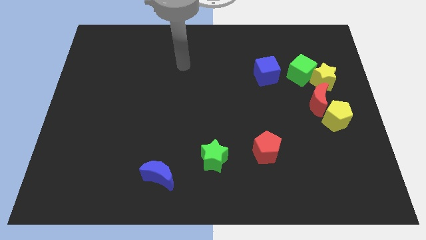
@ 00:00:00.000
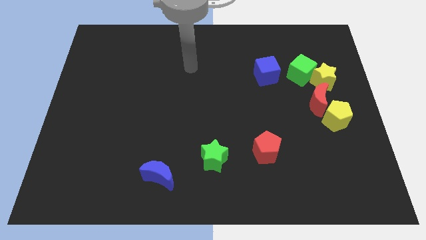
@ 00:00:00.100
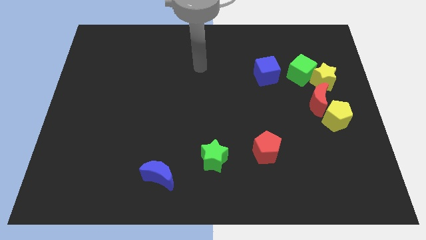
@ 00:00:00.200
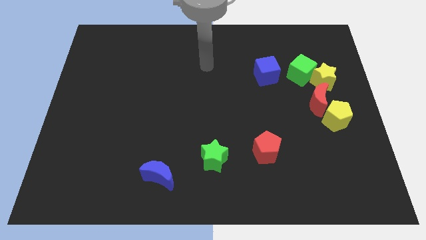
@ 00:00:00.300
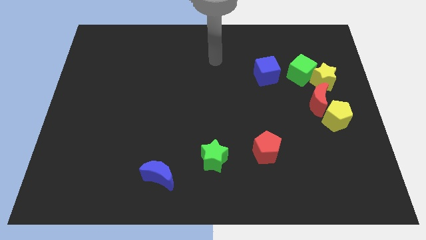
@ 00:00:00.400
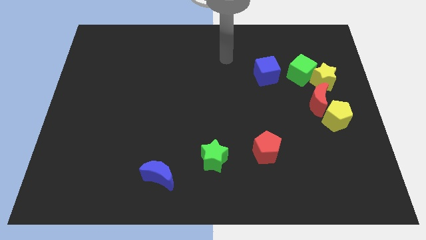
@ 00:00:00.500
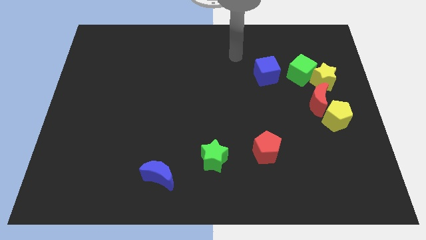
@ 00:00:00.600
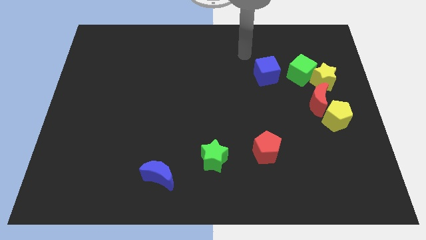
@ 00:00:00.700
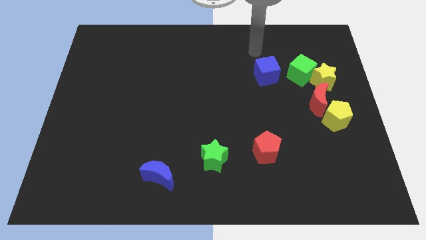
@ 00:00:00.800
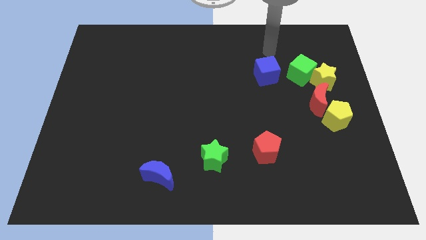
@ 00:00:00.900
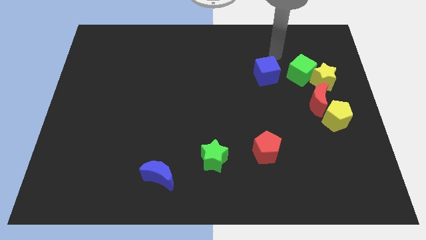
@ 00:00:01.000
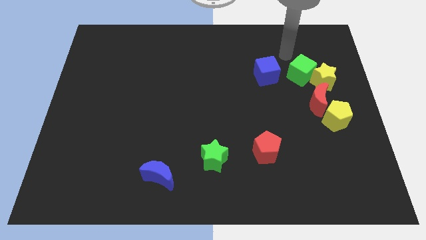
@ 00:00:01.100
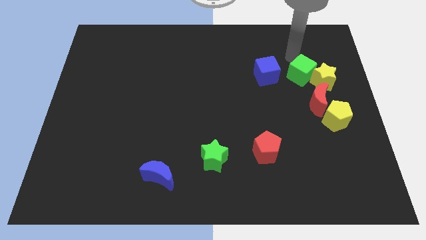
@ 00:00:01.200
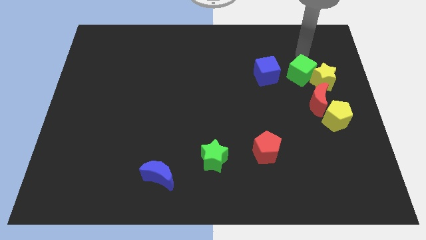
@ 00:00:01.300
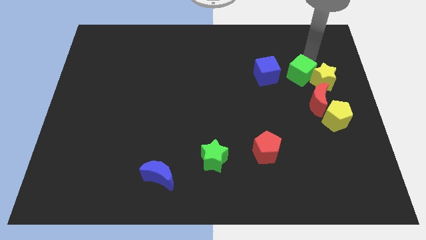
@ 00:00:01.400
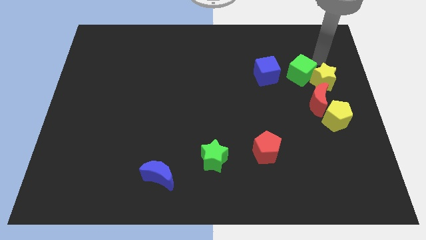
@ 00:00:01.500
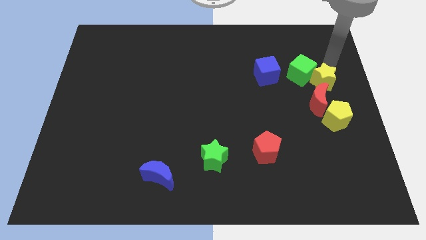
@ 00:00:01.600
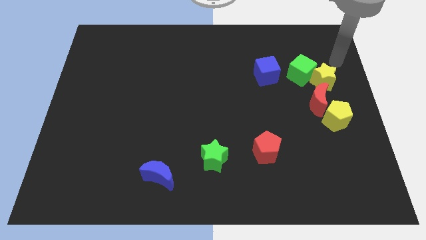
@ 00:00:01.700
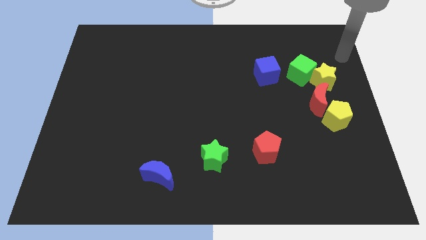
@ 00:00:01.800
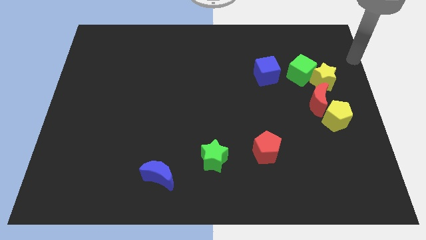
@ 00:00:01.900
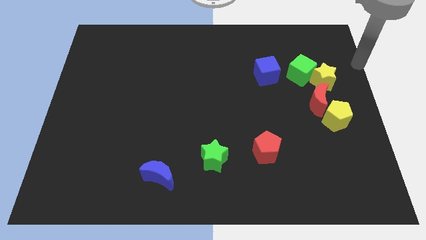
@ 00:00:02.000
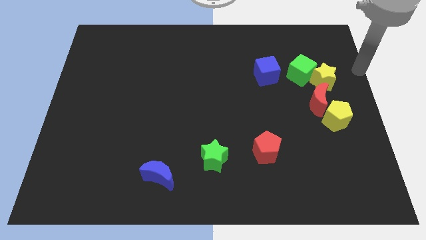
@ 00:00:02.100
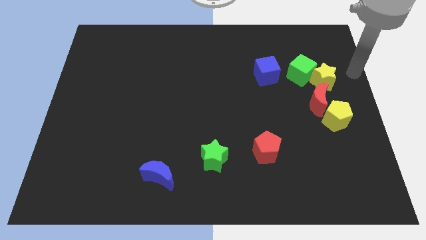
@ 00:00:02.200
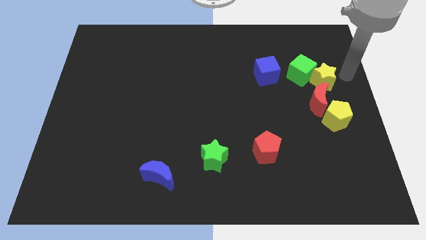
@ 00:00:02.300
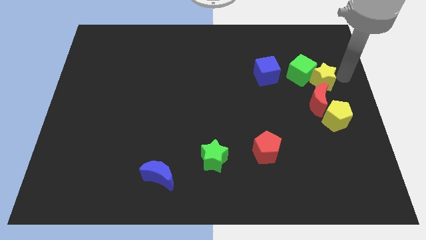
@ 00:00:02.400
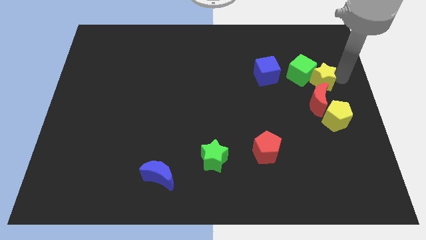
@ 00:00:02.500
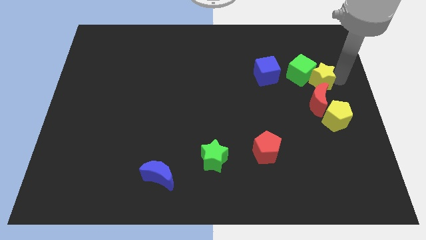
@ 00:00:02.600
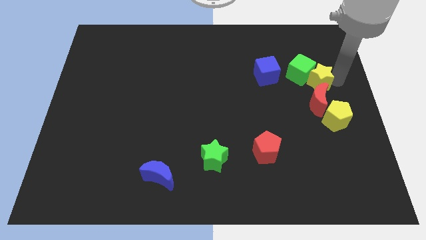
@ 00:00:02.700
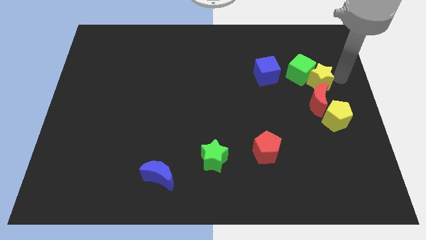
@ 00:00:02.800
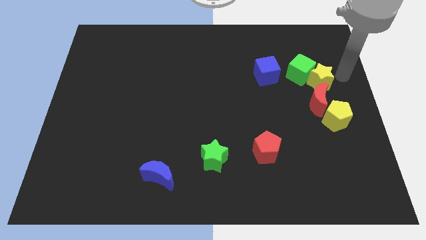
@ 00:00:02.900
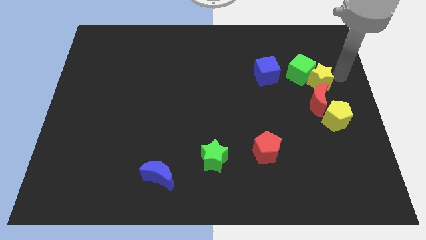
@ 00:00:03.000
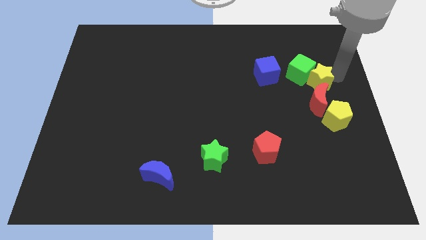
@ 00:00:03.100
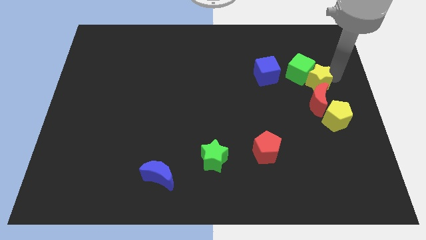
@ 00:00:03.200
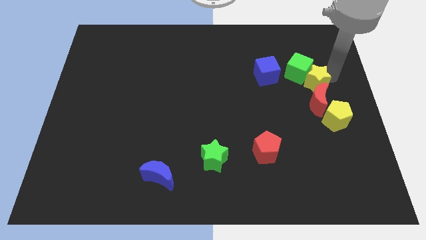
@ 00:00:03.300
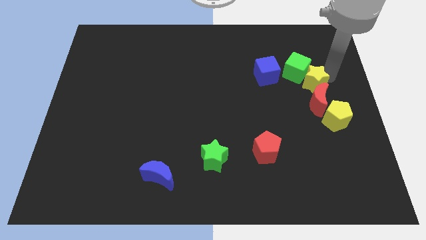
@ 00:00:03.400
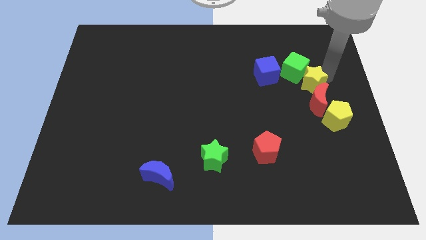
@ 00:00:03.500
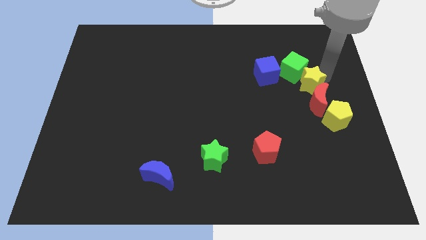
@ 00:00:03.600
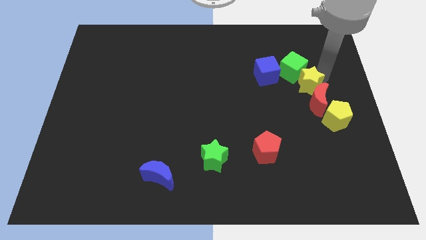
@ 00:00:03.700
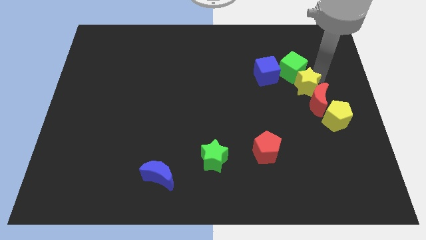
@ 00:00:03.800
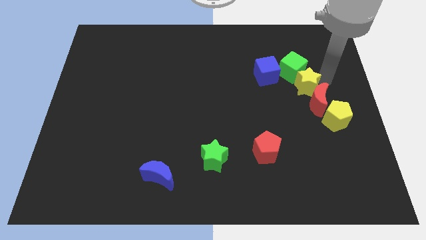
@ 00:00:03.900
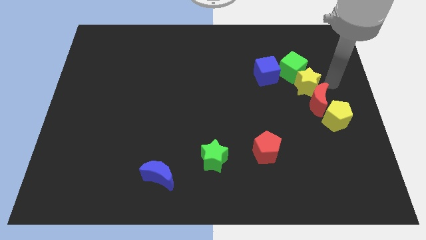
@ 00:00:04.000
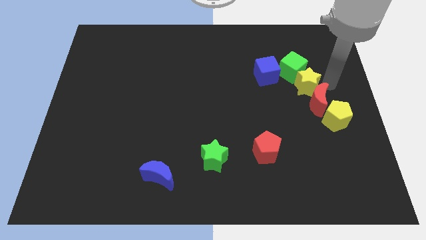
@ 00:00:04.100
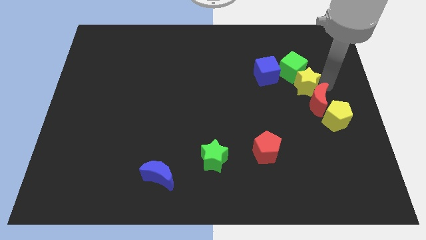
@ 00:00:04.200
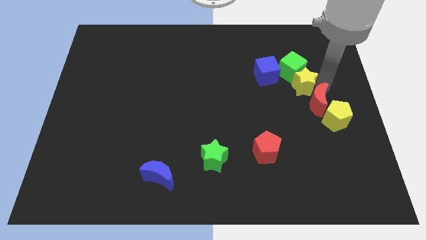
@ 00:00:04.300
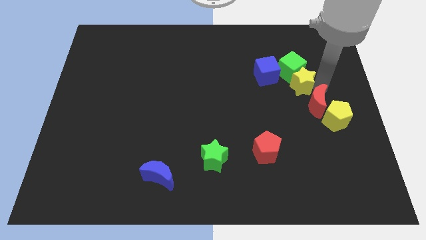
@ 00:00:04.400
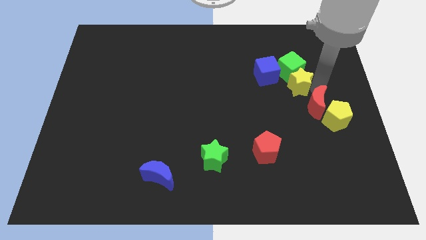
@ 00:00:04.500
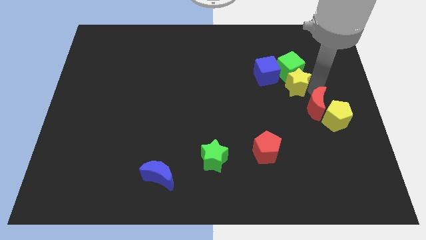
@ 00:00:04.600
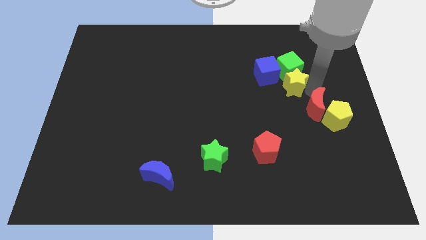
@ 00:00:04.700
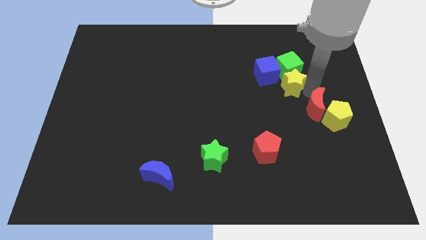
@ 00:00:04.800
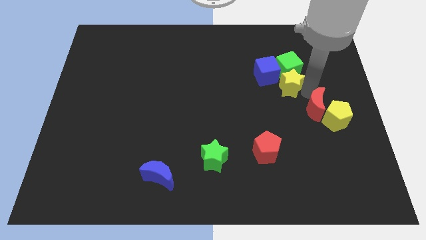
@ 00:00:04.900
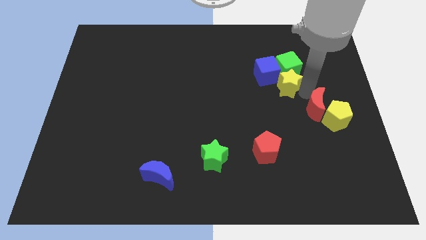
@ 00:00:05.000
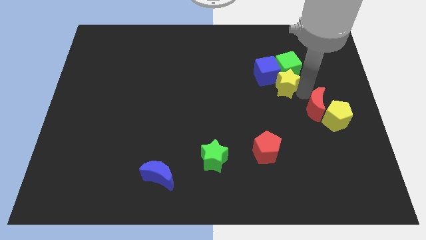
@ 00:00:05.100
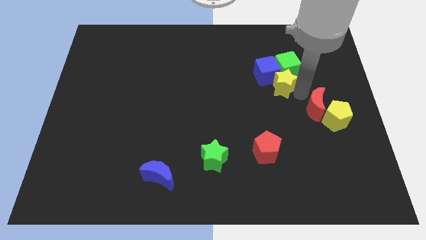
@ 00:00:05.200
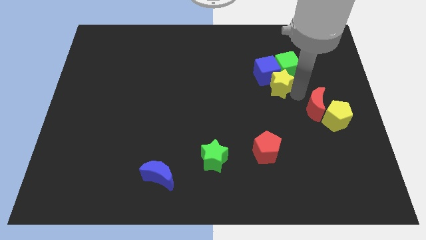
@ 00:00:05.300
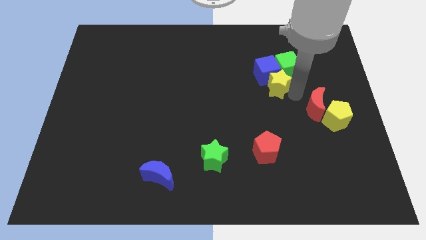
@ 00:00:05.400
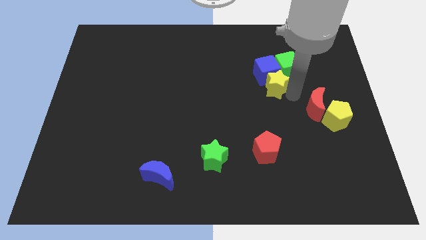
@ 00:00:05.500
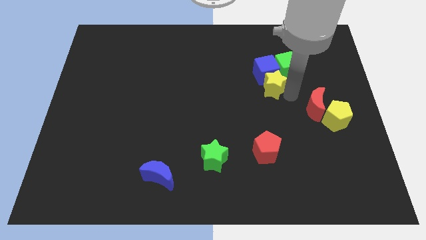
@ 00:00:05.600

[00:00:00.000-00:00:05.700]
push the yellow star to the bottom left of the blue cube

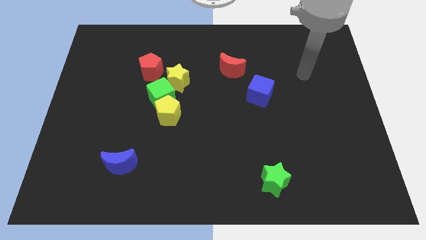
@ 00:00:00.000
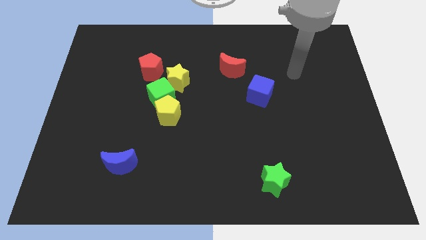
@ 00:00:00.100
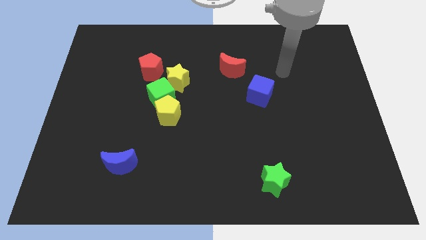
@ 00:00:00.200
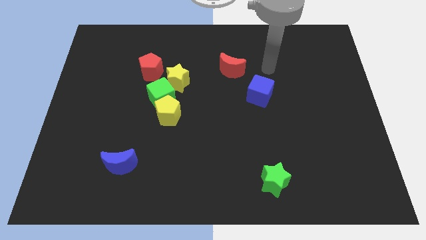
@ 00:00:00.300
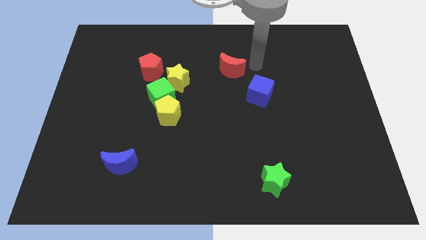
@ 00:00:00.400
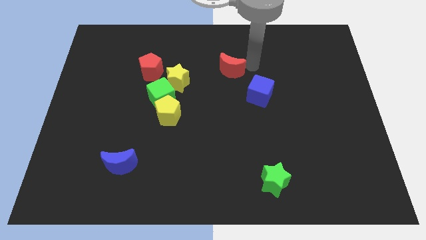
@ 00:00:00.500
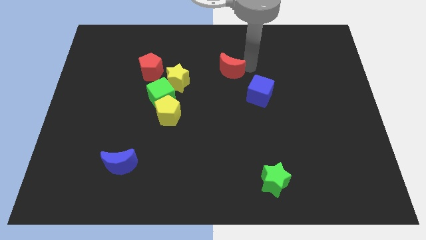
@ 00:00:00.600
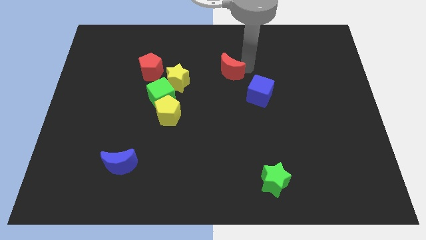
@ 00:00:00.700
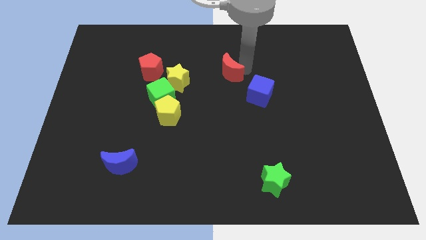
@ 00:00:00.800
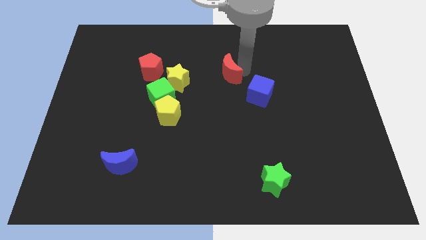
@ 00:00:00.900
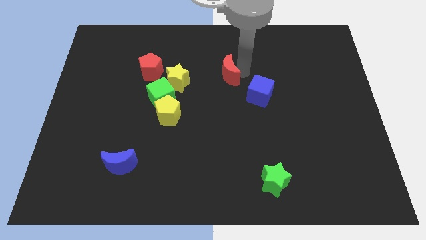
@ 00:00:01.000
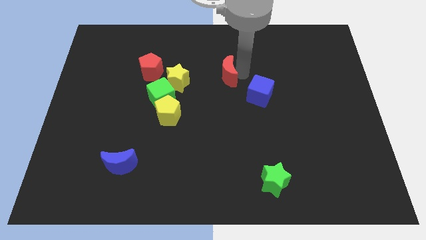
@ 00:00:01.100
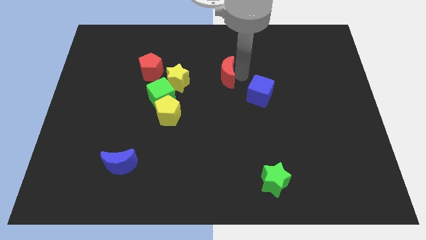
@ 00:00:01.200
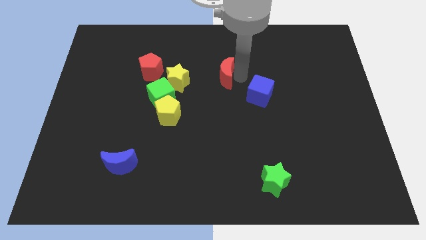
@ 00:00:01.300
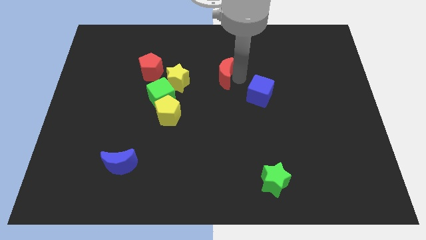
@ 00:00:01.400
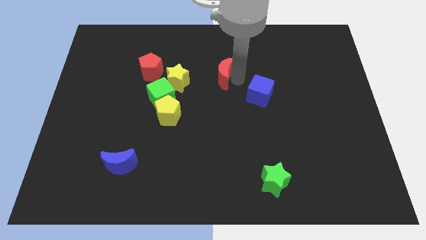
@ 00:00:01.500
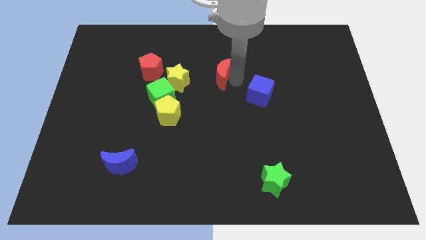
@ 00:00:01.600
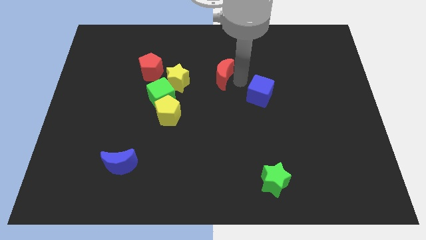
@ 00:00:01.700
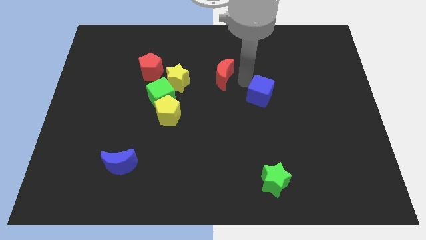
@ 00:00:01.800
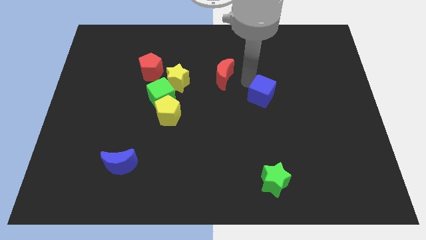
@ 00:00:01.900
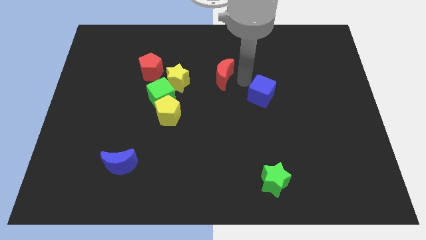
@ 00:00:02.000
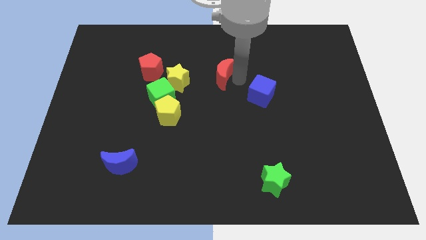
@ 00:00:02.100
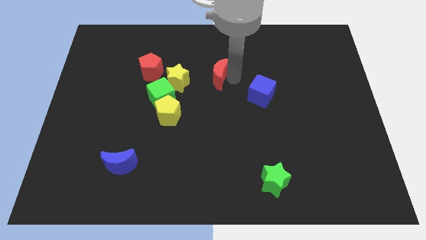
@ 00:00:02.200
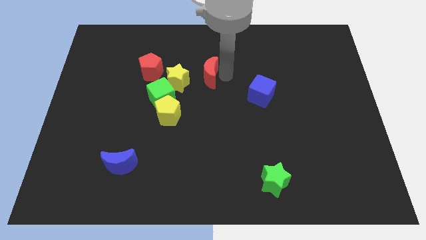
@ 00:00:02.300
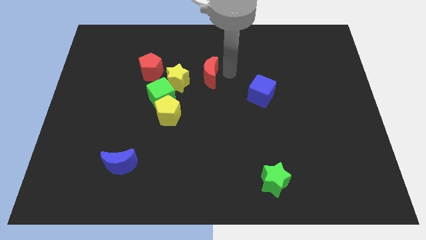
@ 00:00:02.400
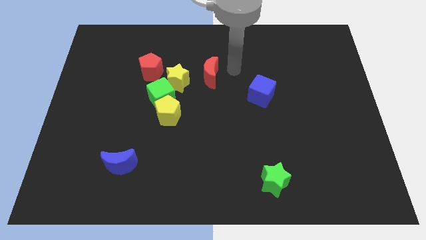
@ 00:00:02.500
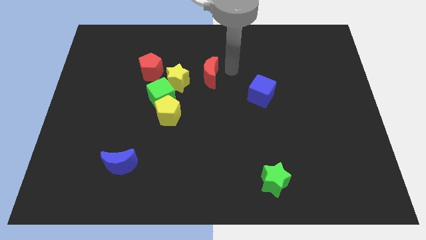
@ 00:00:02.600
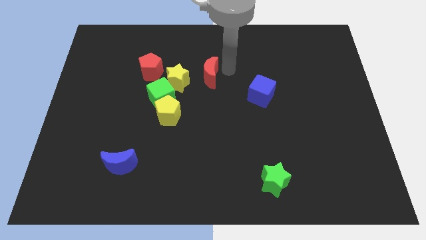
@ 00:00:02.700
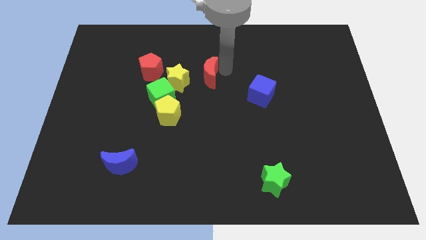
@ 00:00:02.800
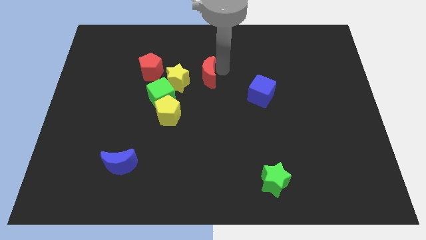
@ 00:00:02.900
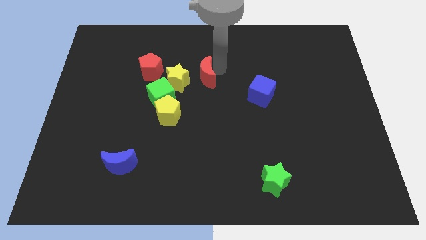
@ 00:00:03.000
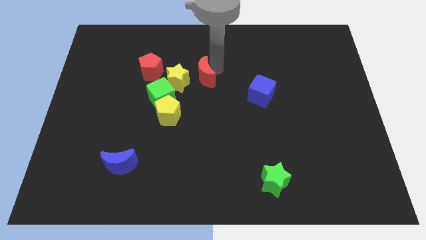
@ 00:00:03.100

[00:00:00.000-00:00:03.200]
push the red moon diagonally up and to the right of the green cube
